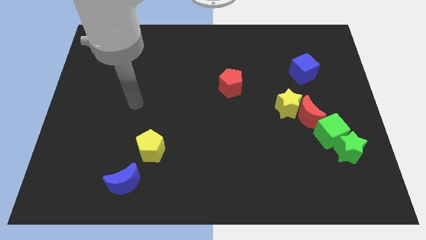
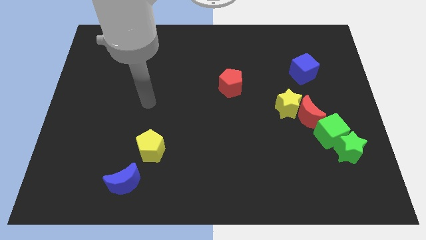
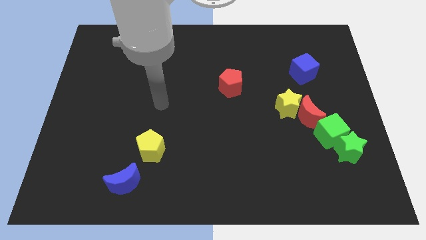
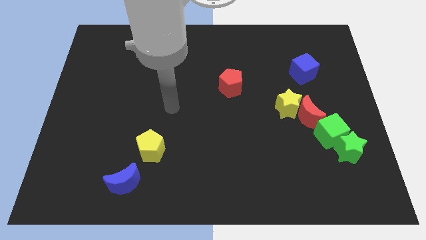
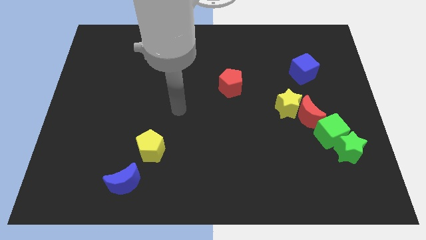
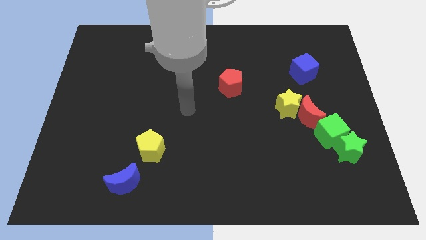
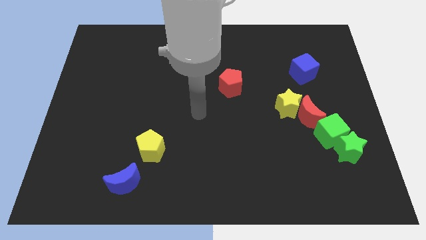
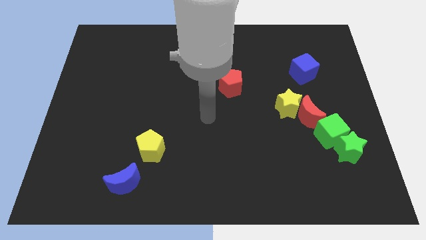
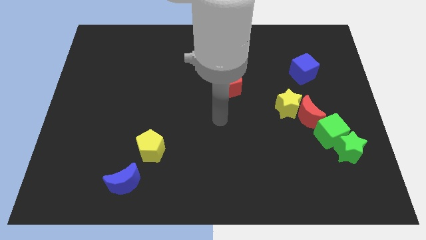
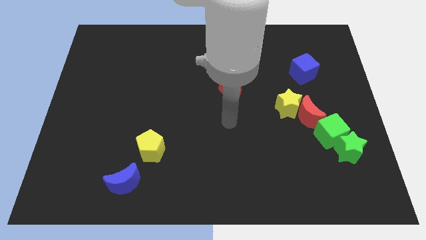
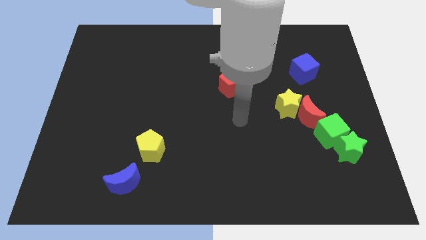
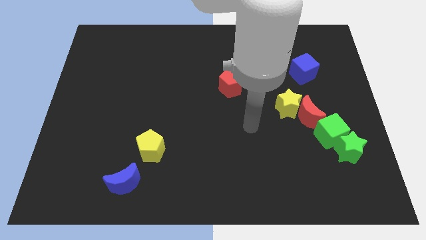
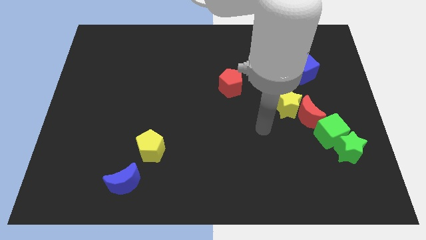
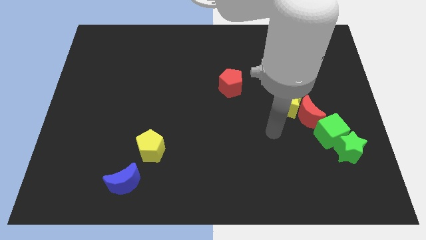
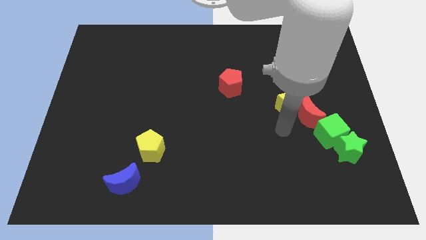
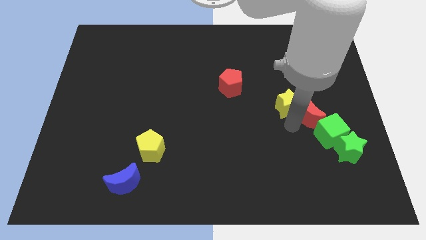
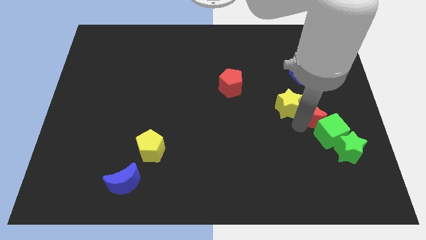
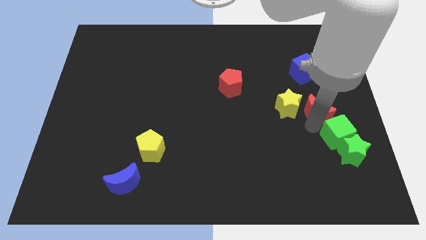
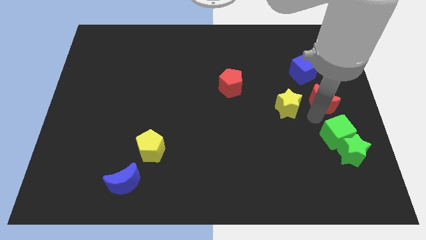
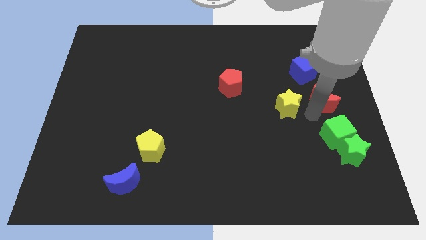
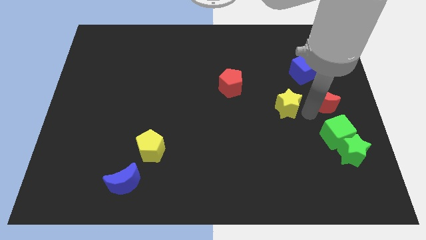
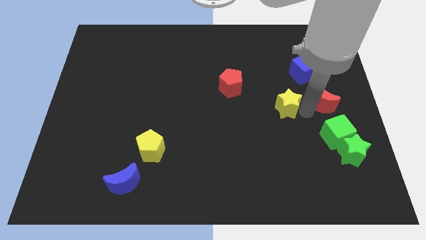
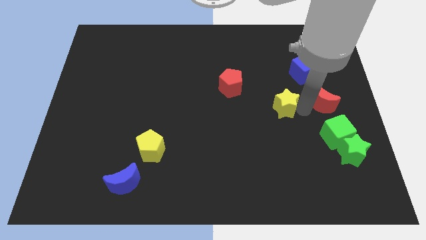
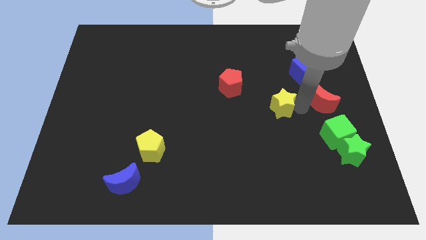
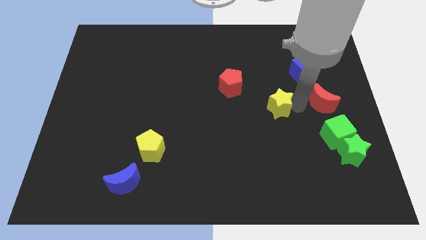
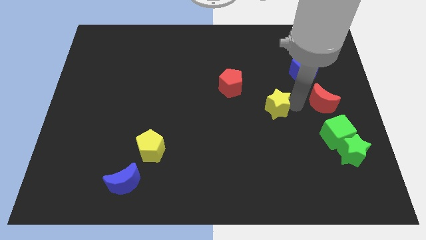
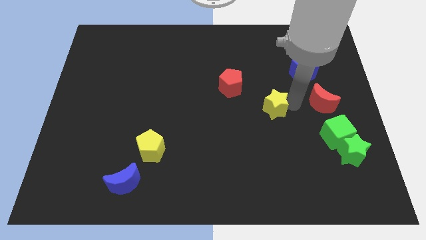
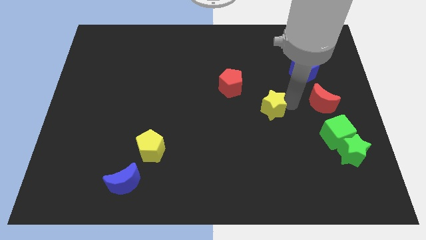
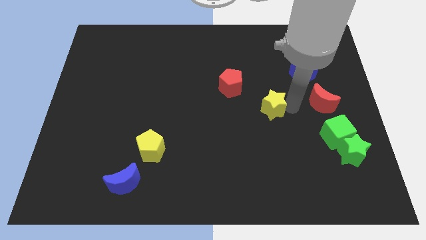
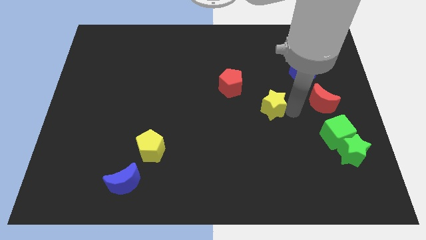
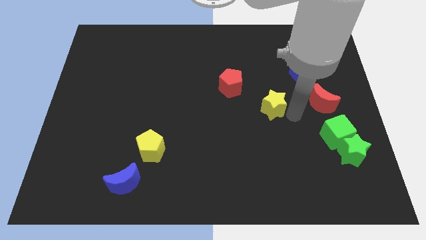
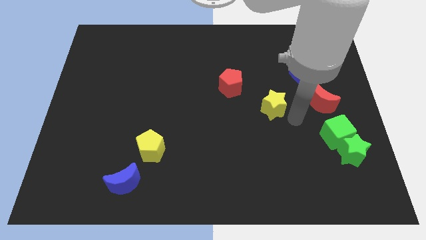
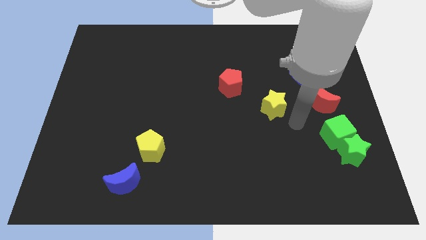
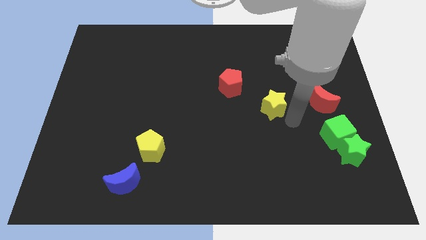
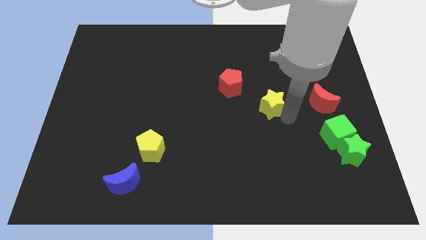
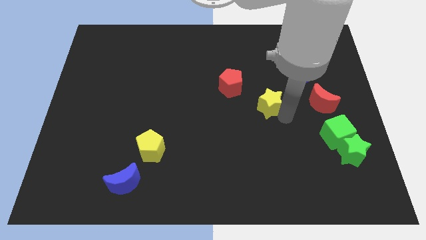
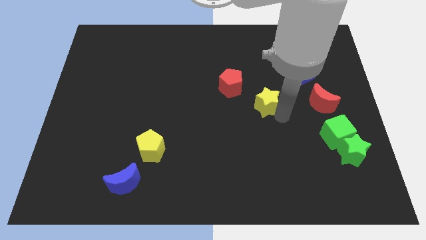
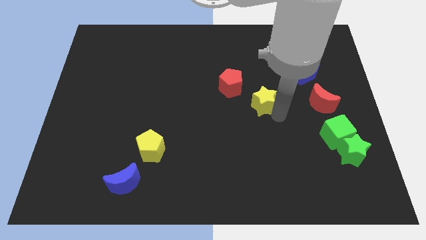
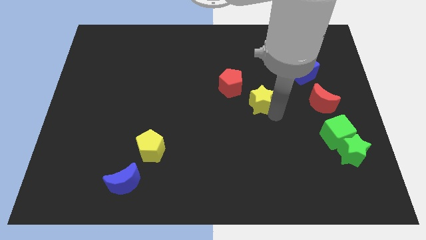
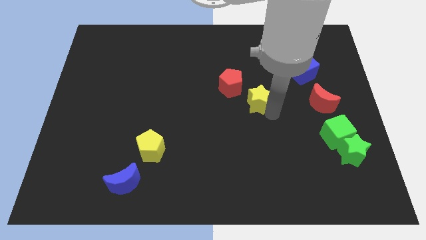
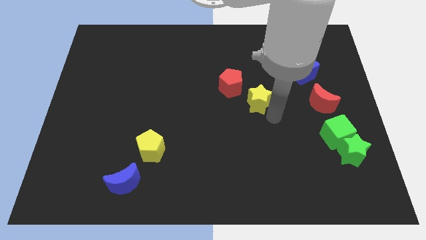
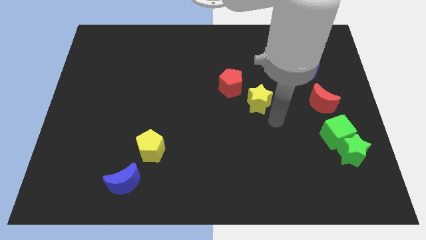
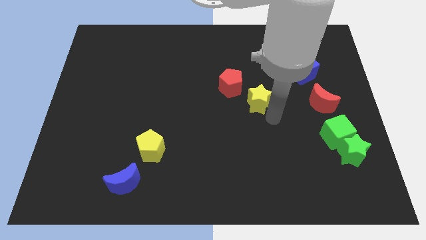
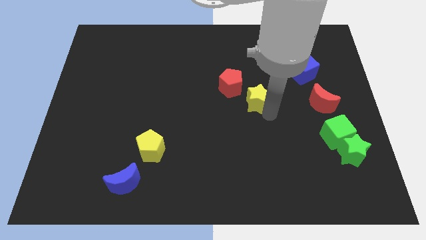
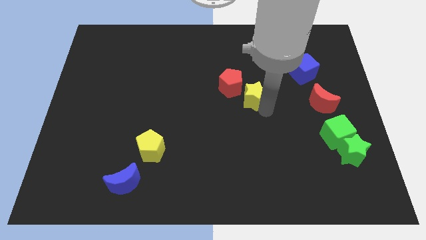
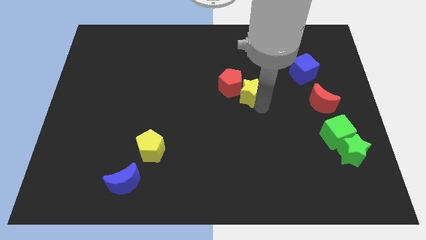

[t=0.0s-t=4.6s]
move the yellow star close to the red pentagon

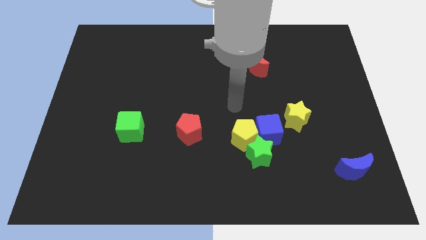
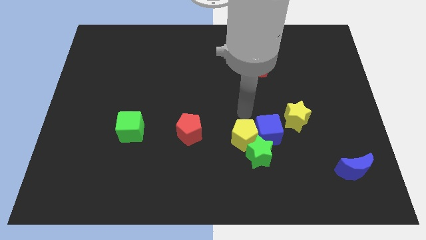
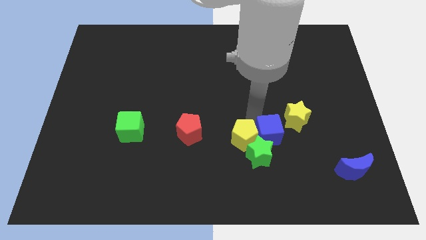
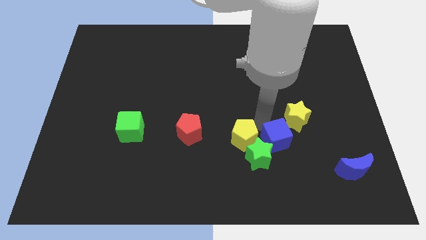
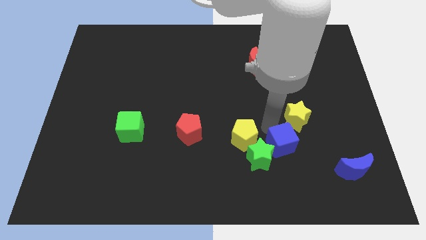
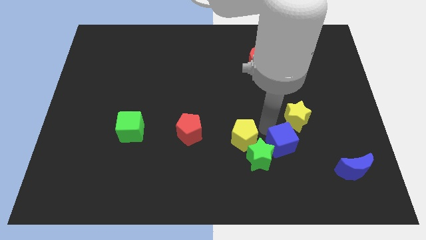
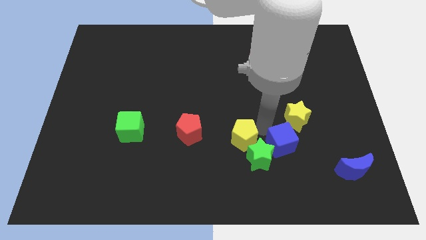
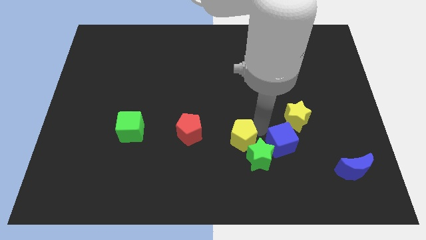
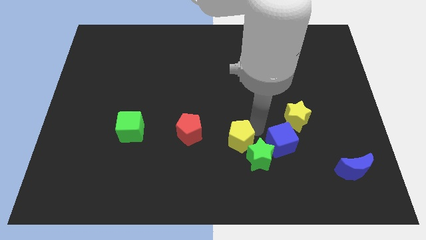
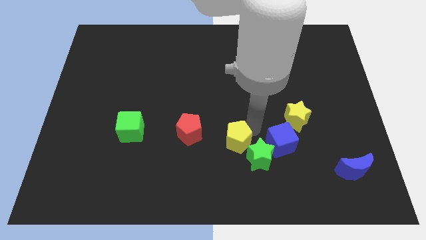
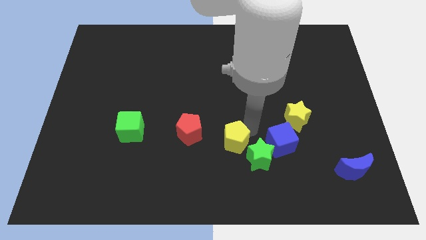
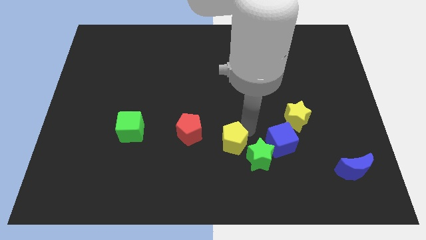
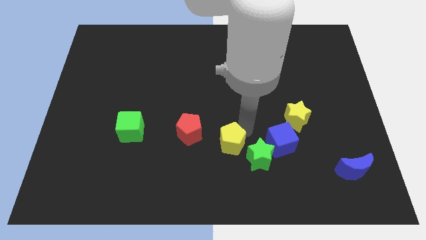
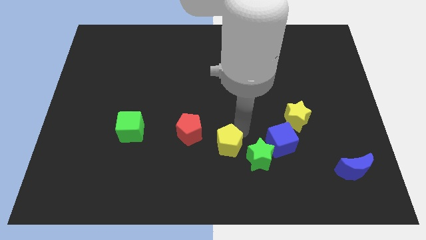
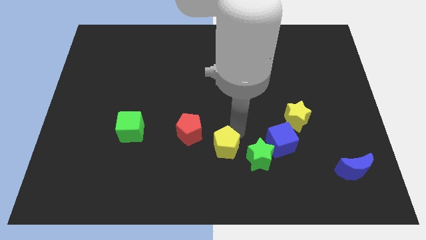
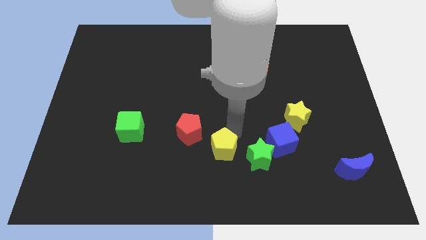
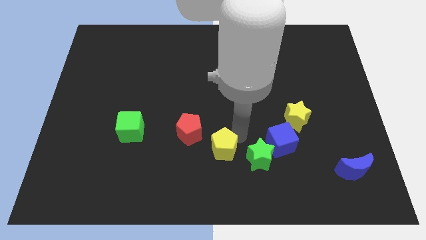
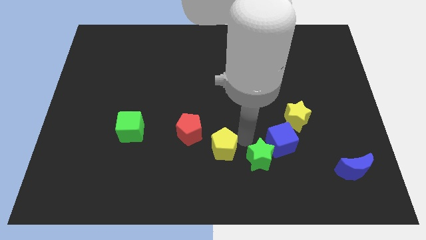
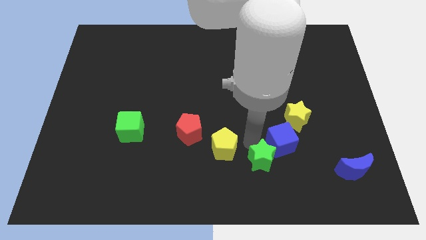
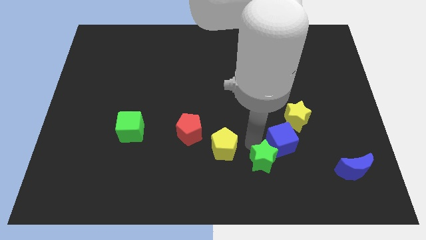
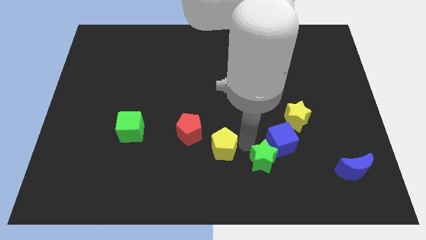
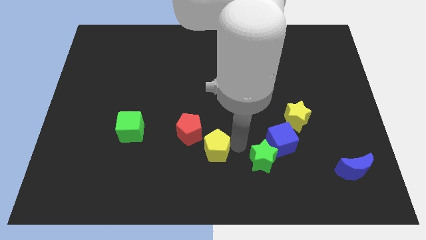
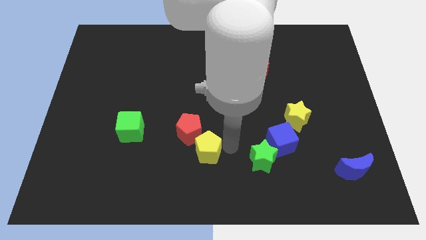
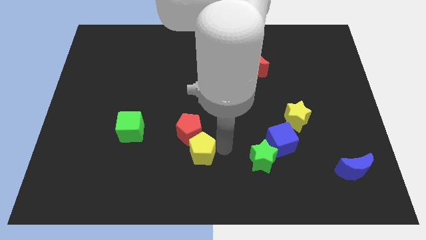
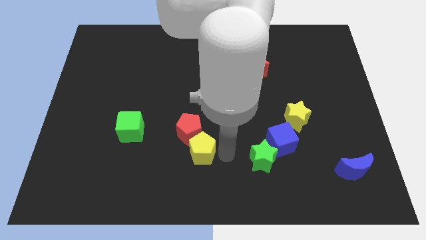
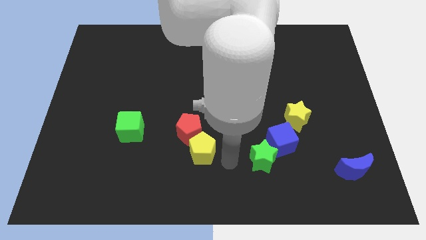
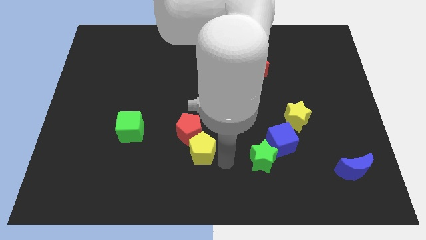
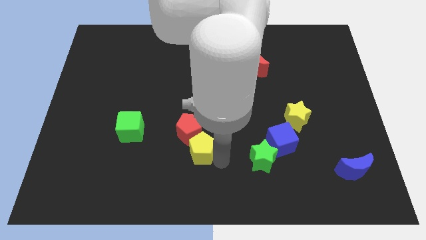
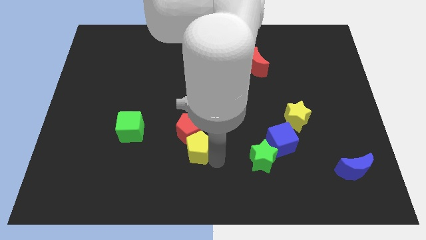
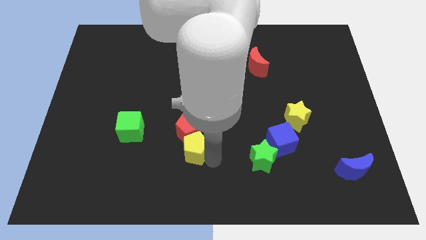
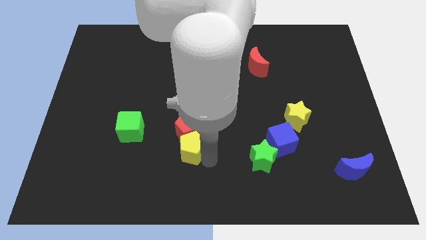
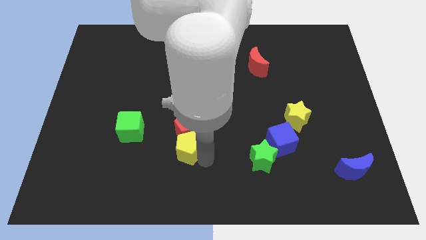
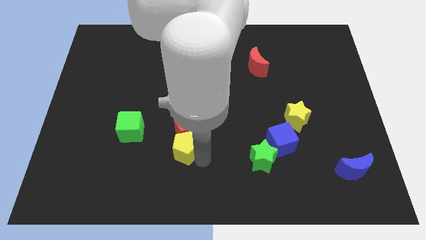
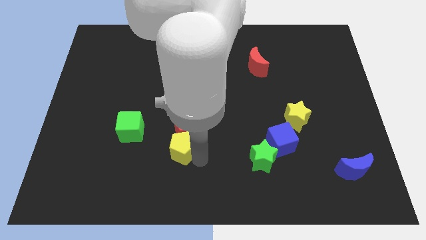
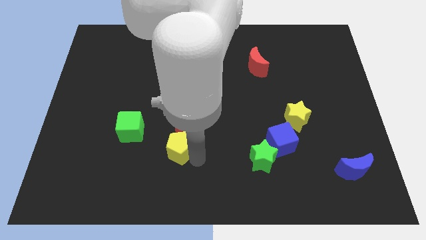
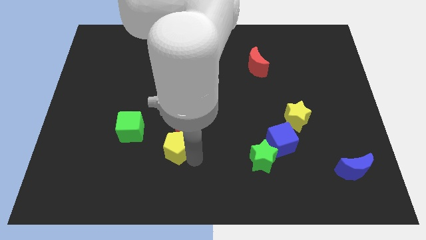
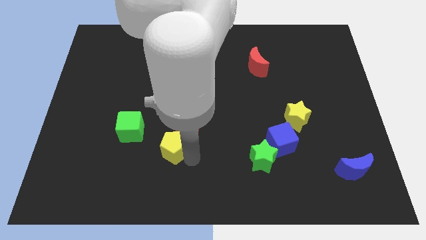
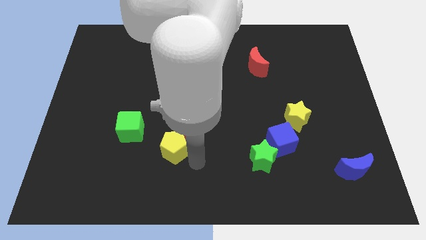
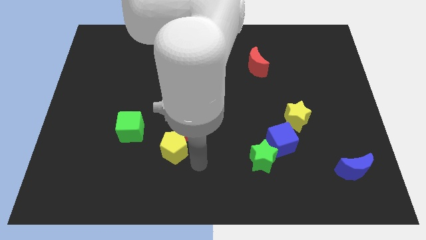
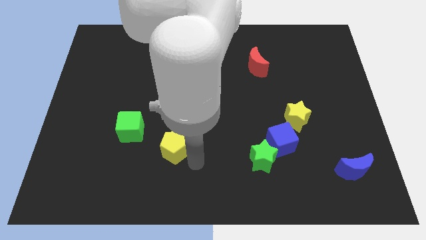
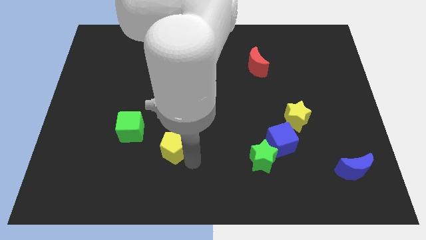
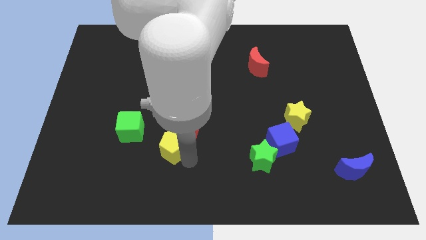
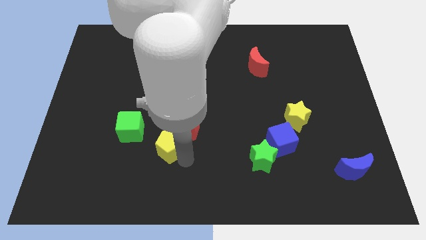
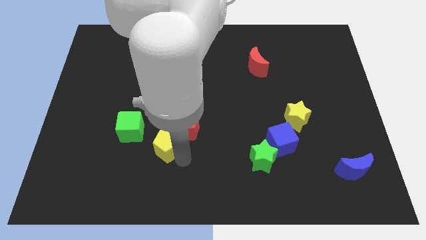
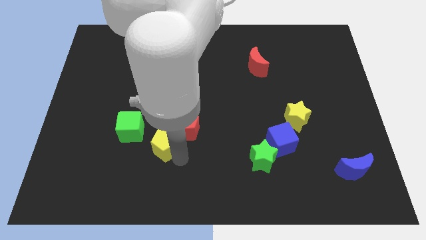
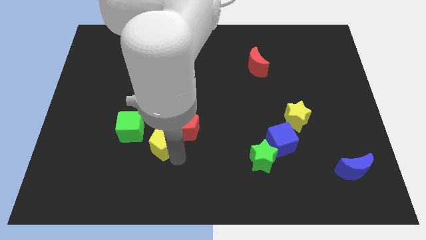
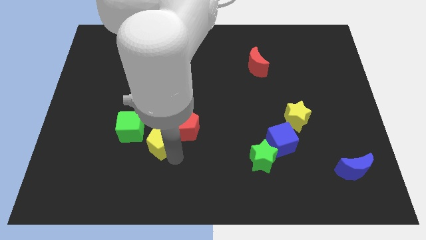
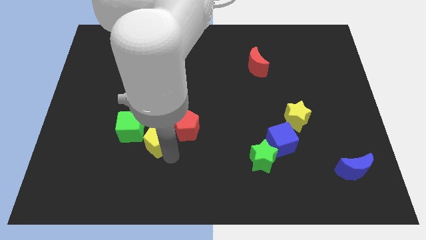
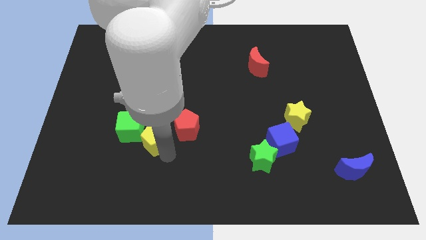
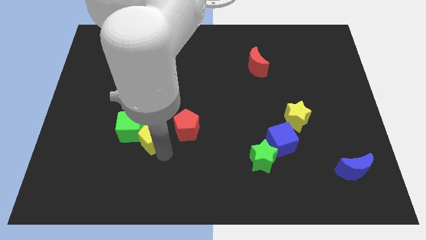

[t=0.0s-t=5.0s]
slide the yellow pentagon to the green cube
